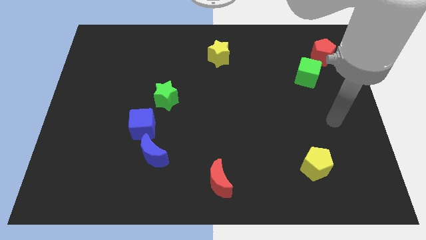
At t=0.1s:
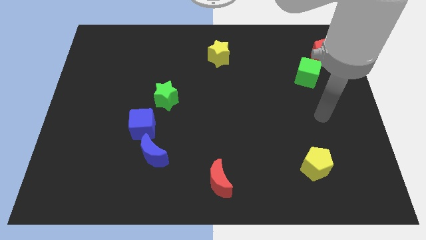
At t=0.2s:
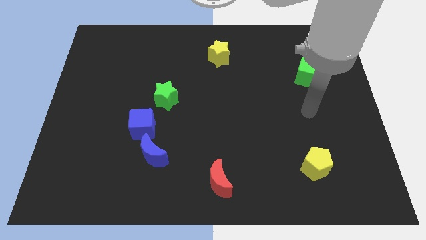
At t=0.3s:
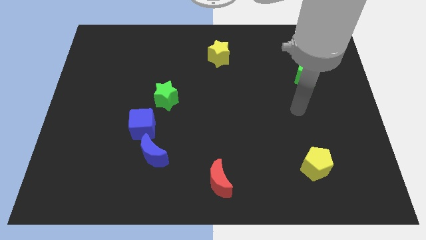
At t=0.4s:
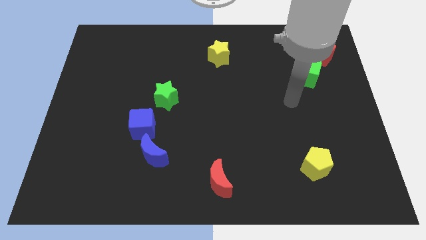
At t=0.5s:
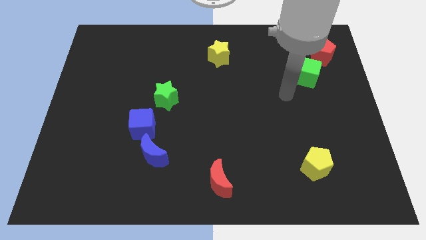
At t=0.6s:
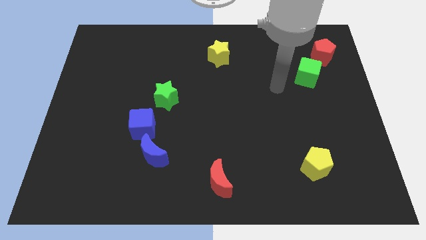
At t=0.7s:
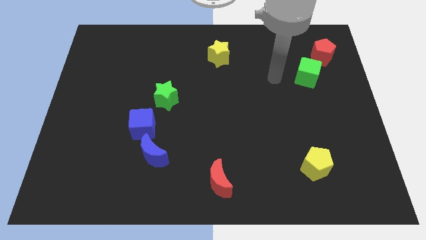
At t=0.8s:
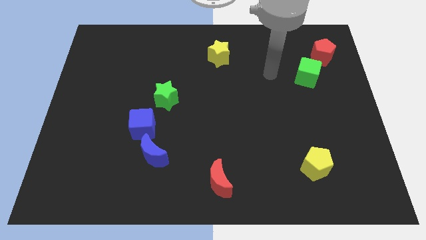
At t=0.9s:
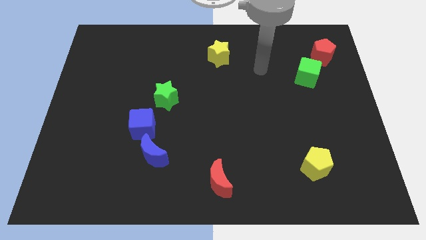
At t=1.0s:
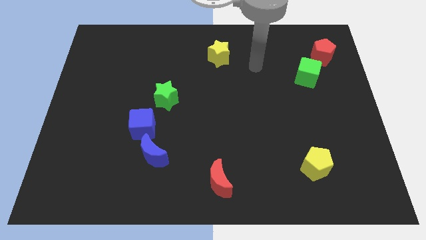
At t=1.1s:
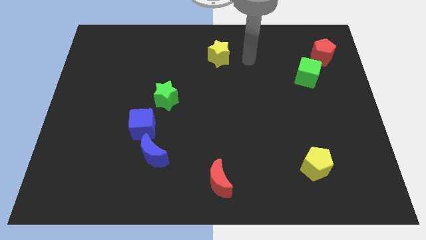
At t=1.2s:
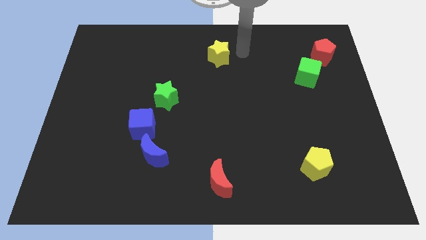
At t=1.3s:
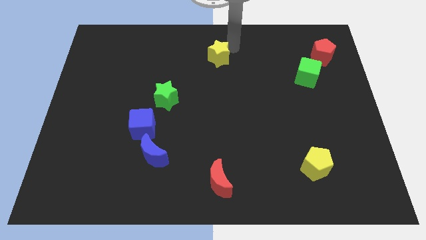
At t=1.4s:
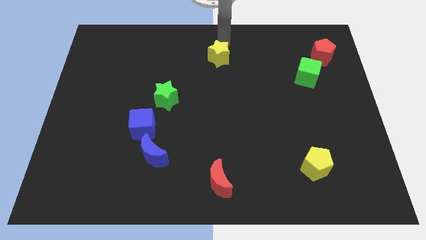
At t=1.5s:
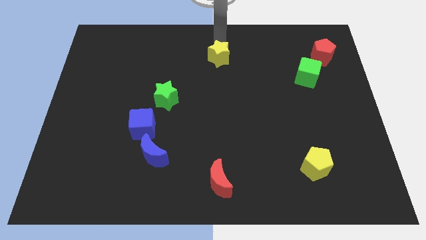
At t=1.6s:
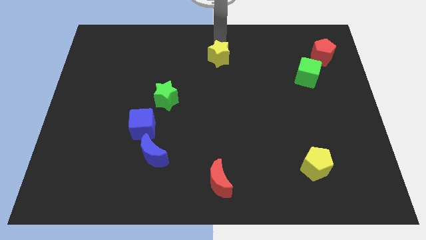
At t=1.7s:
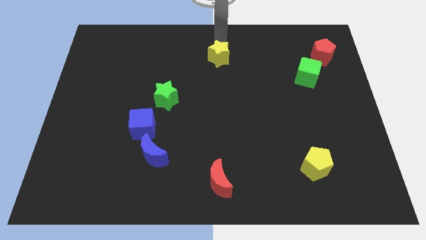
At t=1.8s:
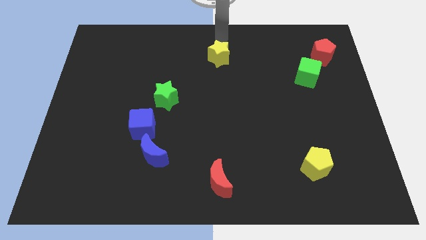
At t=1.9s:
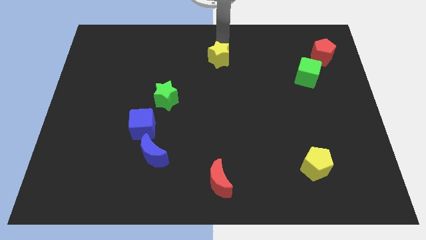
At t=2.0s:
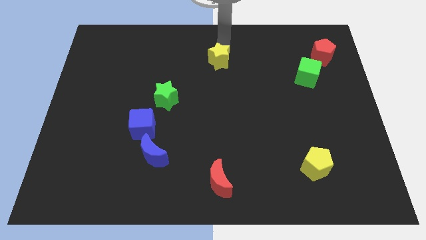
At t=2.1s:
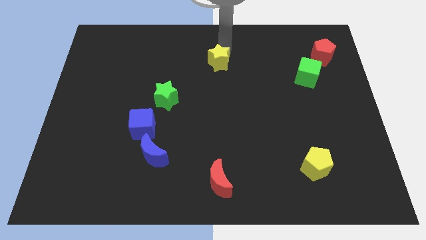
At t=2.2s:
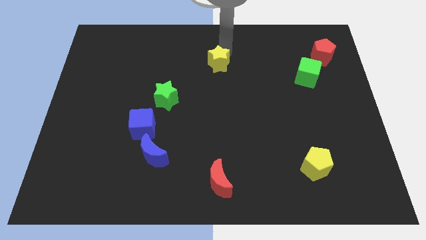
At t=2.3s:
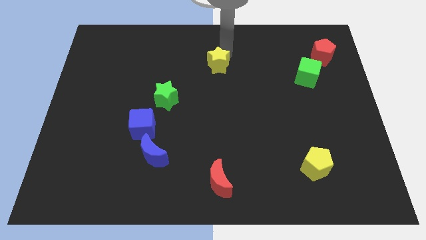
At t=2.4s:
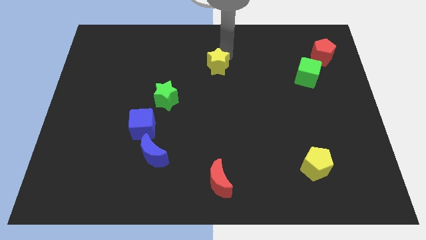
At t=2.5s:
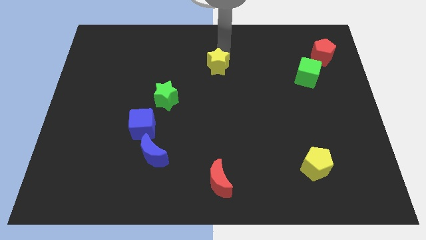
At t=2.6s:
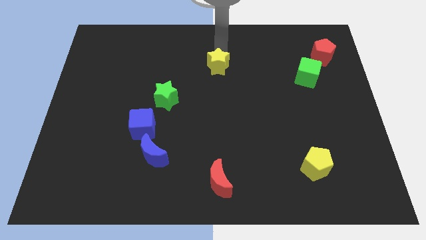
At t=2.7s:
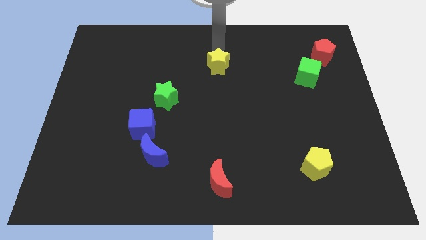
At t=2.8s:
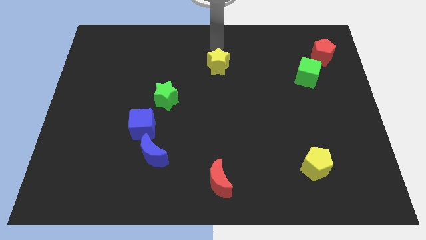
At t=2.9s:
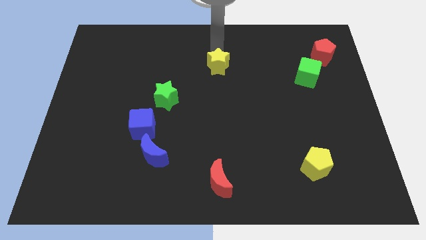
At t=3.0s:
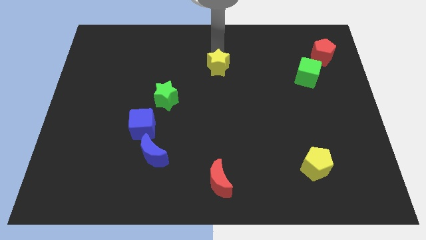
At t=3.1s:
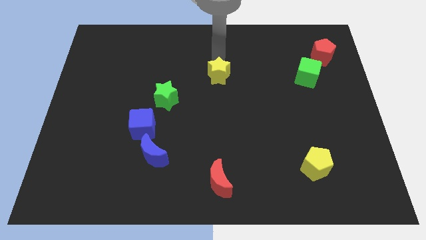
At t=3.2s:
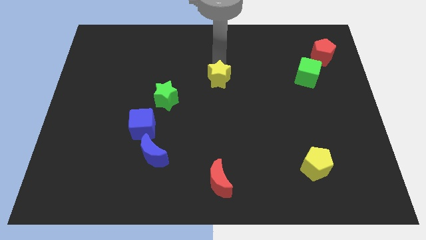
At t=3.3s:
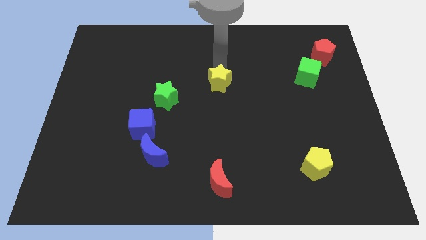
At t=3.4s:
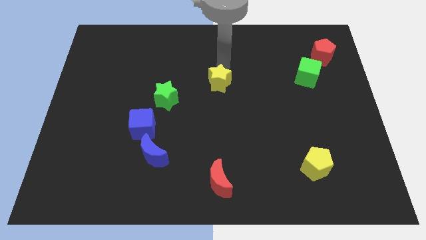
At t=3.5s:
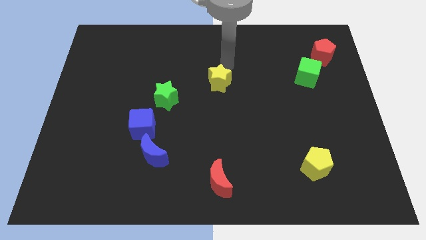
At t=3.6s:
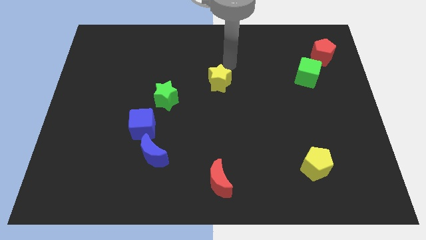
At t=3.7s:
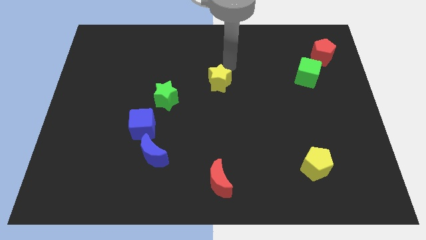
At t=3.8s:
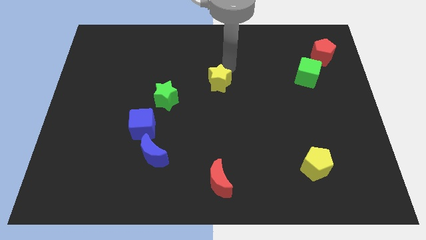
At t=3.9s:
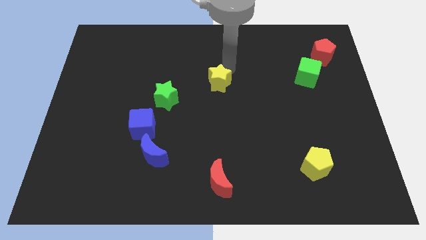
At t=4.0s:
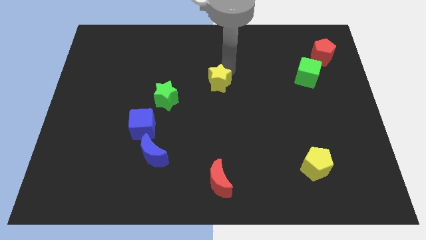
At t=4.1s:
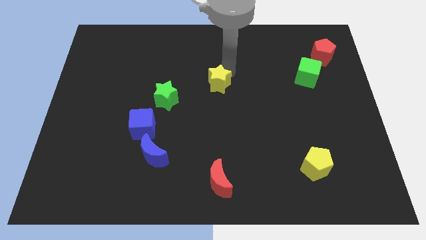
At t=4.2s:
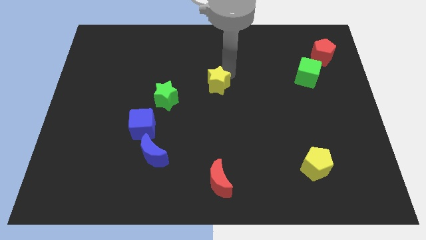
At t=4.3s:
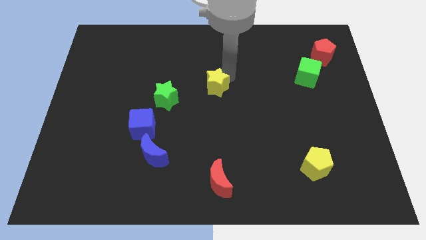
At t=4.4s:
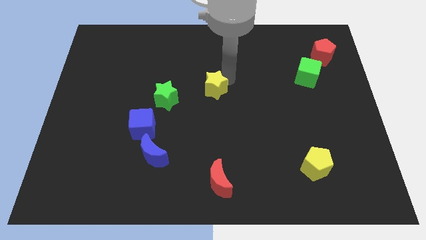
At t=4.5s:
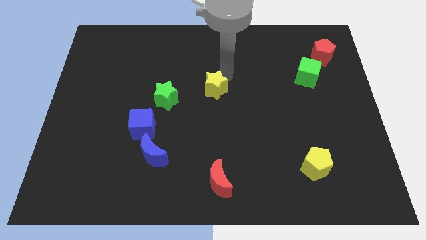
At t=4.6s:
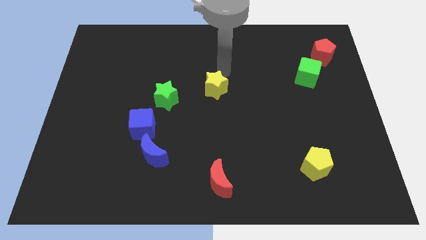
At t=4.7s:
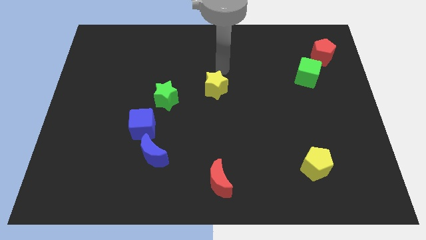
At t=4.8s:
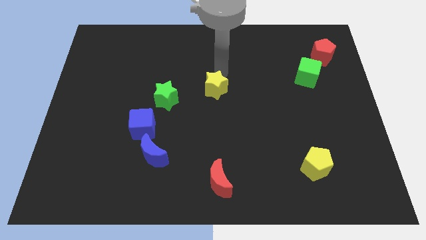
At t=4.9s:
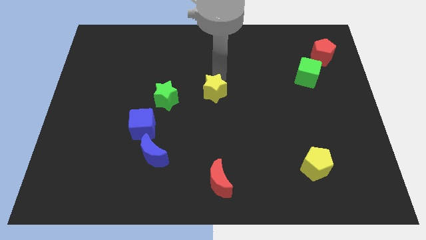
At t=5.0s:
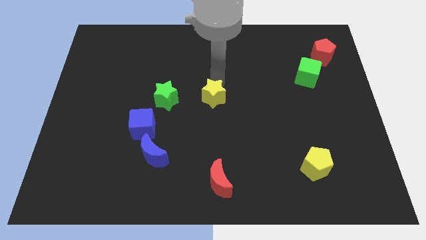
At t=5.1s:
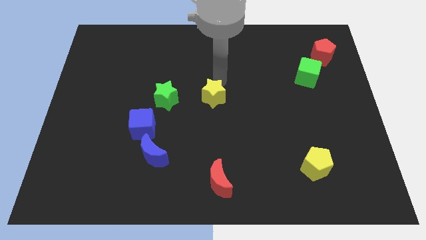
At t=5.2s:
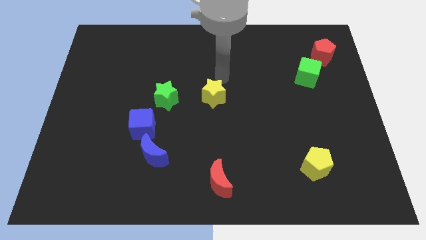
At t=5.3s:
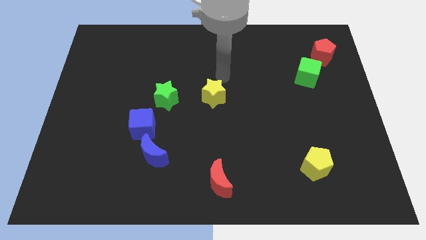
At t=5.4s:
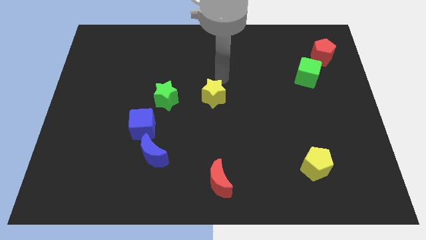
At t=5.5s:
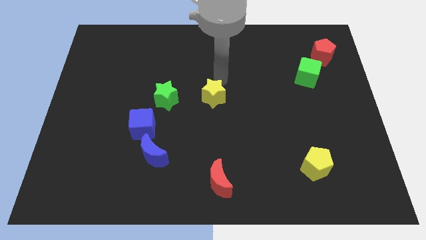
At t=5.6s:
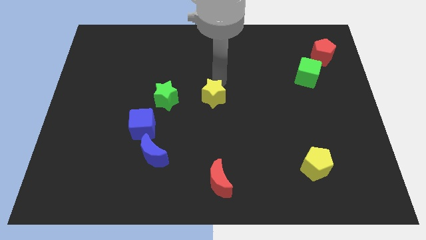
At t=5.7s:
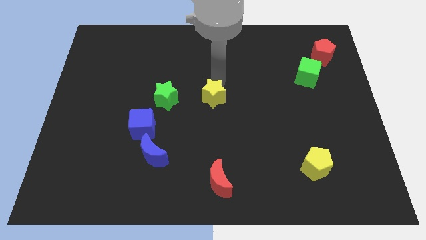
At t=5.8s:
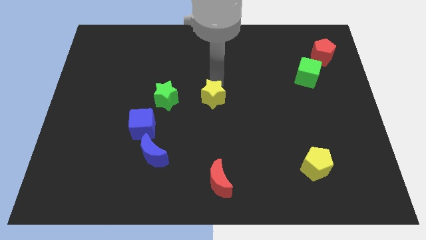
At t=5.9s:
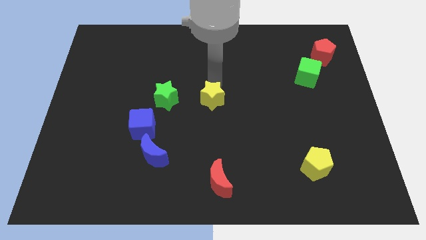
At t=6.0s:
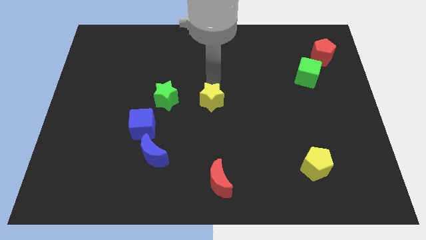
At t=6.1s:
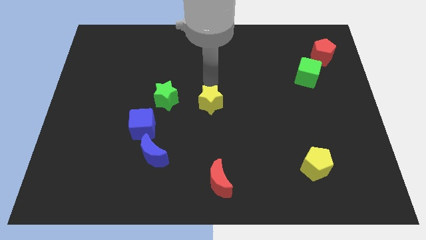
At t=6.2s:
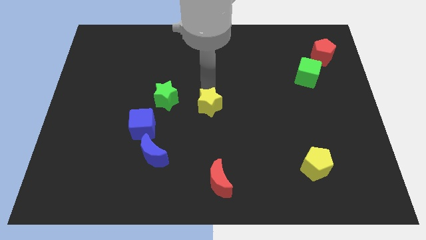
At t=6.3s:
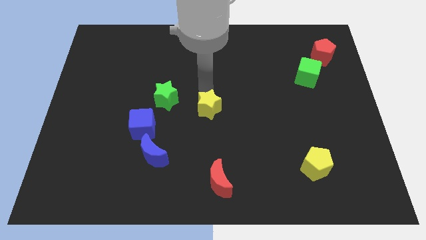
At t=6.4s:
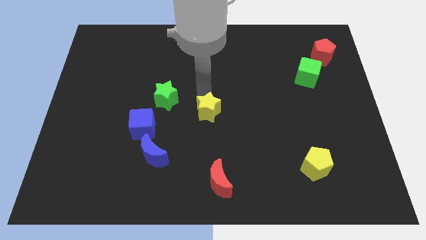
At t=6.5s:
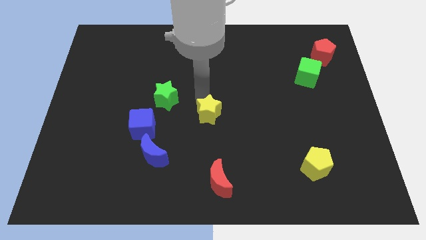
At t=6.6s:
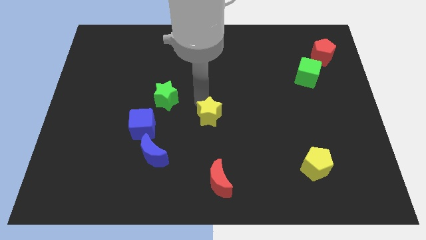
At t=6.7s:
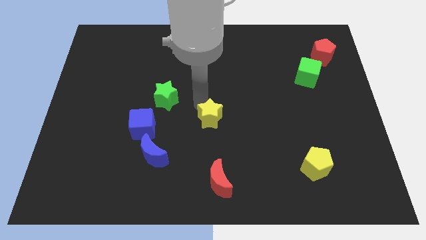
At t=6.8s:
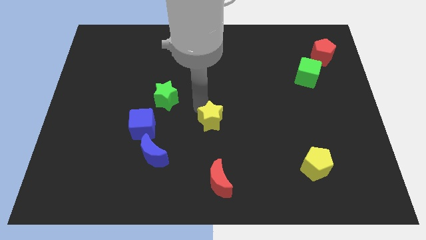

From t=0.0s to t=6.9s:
put the yellow star to the top side of the red moon

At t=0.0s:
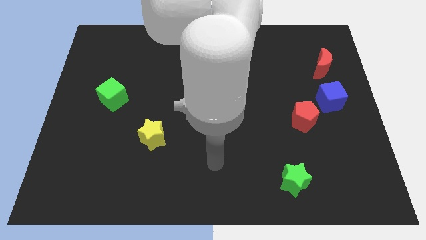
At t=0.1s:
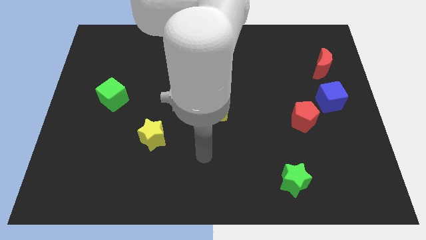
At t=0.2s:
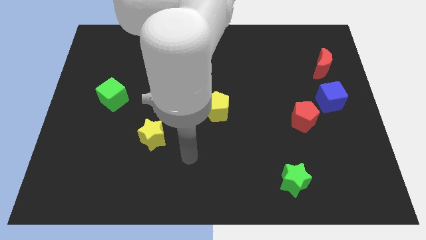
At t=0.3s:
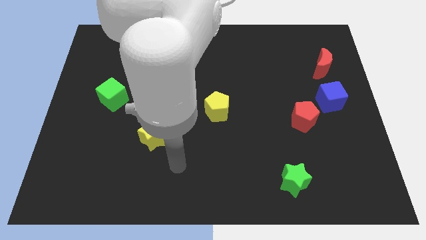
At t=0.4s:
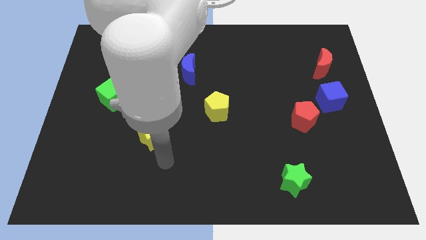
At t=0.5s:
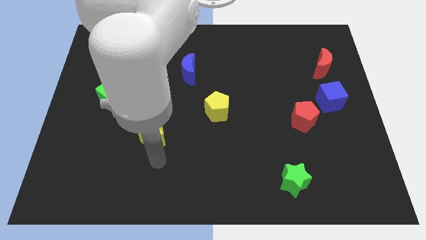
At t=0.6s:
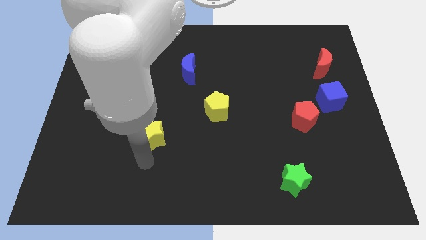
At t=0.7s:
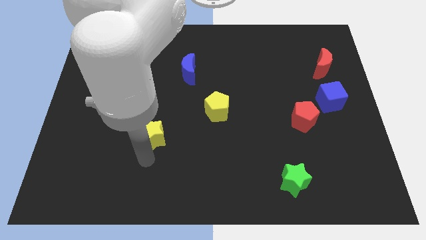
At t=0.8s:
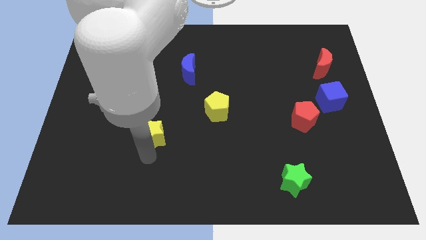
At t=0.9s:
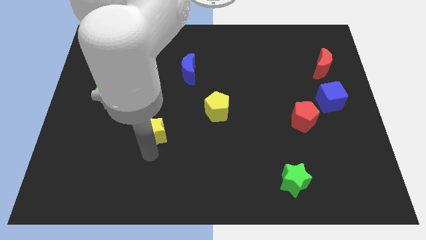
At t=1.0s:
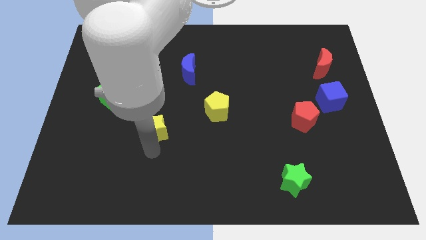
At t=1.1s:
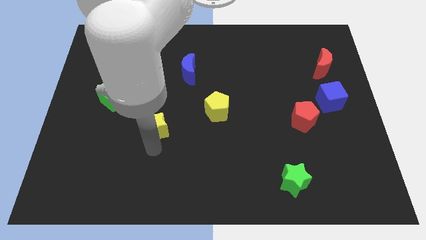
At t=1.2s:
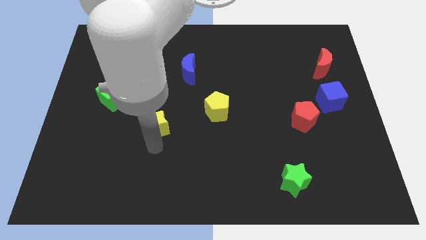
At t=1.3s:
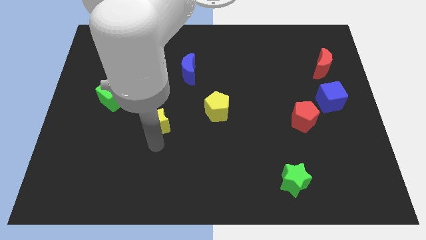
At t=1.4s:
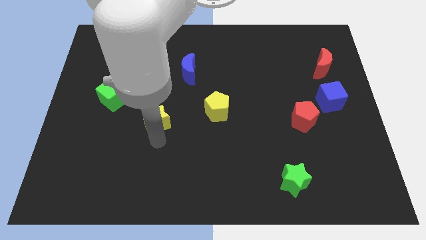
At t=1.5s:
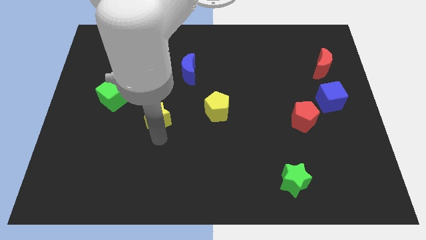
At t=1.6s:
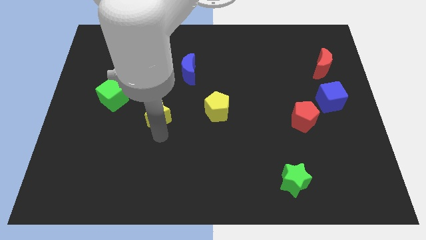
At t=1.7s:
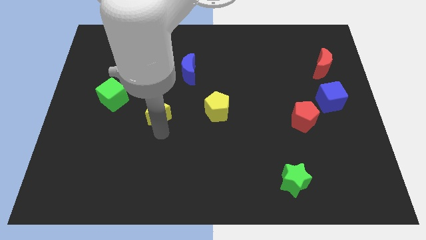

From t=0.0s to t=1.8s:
put the yellow star right of the green cube
